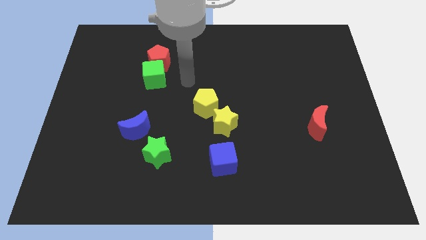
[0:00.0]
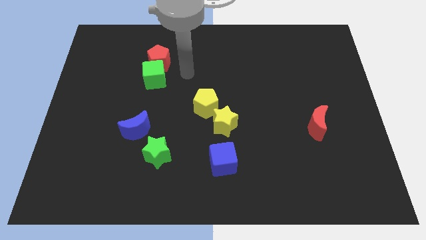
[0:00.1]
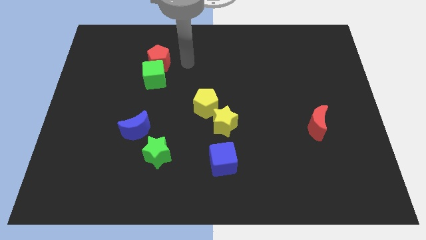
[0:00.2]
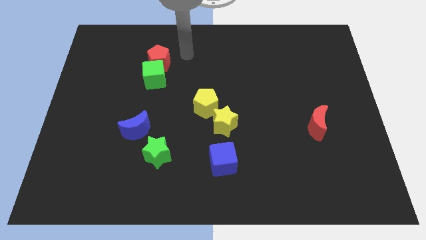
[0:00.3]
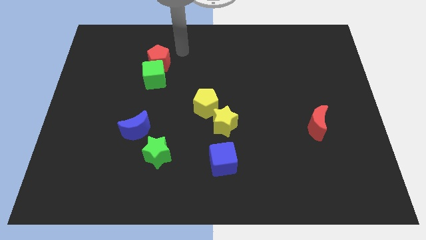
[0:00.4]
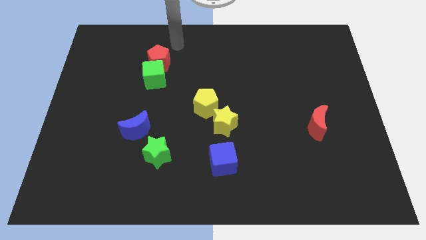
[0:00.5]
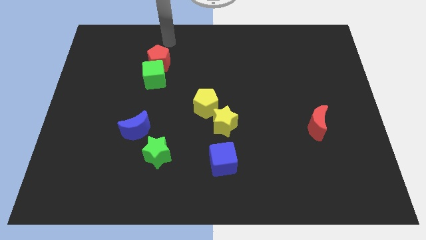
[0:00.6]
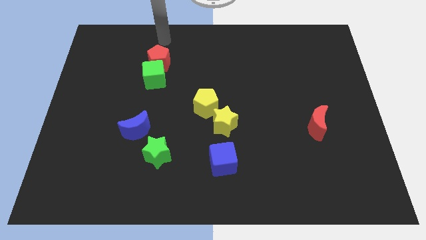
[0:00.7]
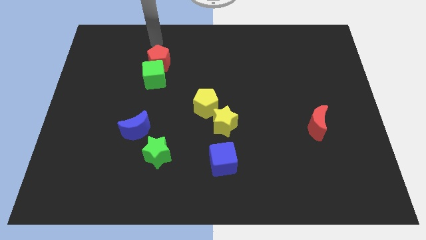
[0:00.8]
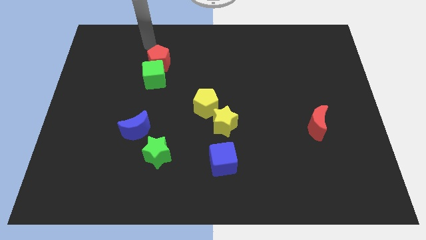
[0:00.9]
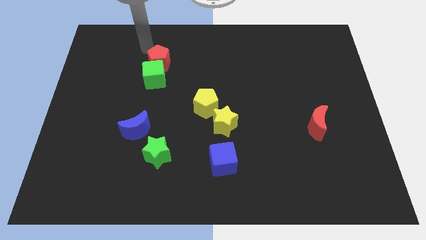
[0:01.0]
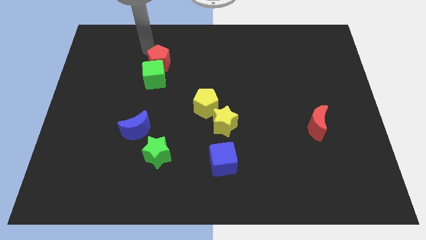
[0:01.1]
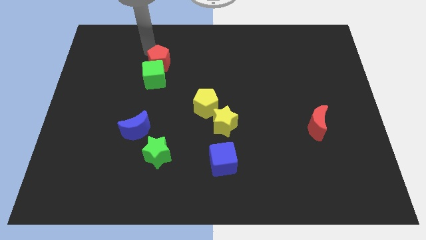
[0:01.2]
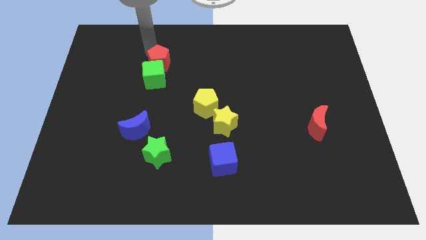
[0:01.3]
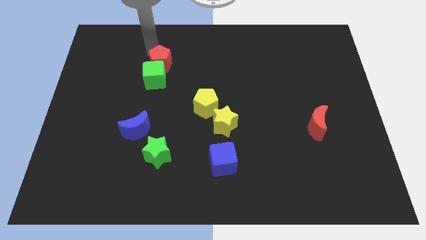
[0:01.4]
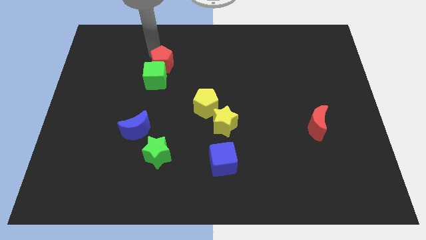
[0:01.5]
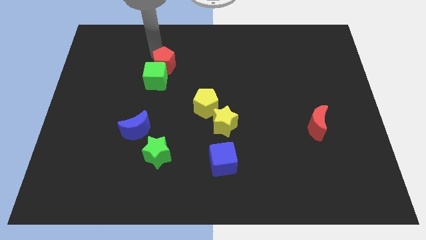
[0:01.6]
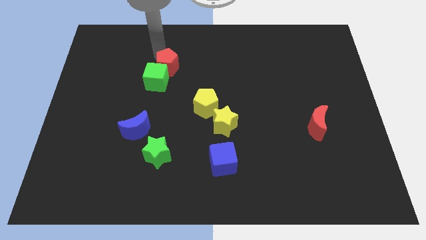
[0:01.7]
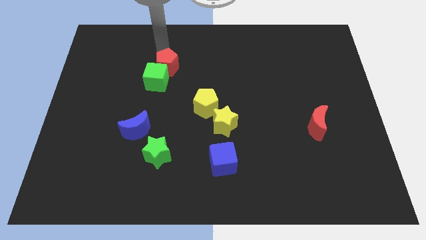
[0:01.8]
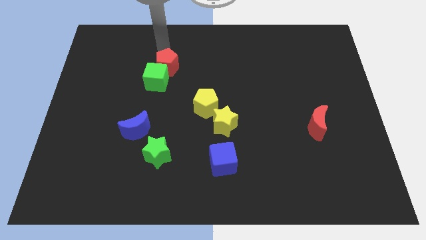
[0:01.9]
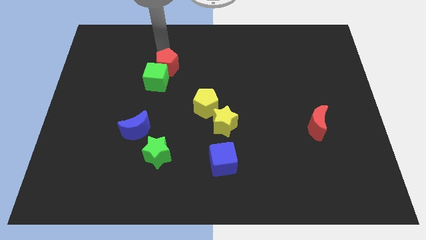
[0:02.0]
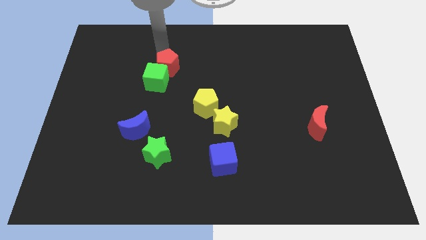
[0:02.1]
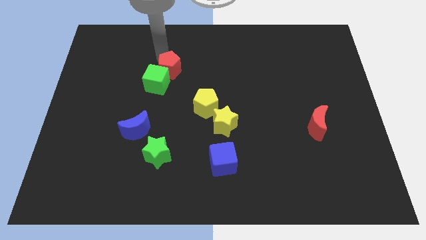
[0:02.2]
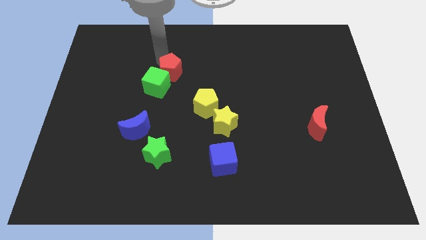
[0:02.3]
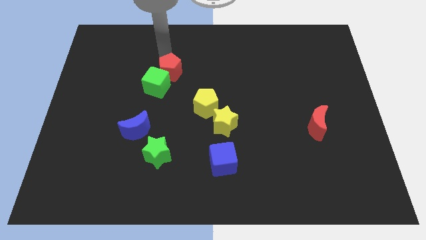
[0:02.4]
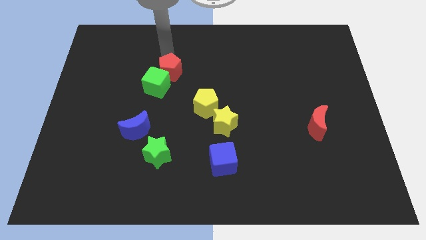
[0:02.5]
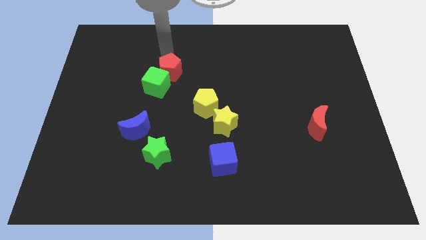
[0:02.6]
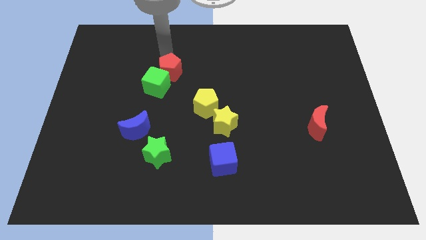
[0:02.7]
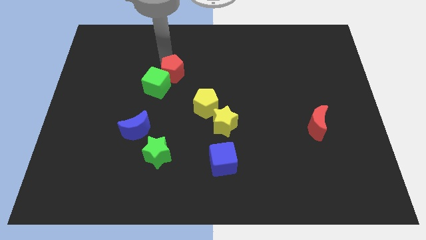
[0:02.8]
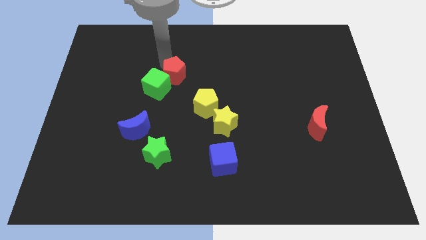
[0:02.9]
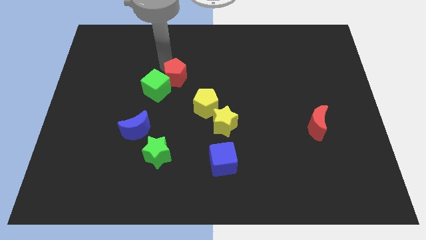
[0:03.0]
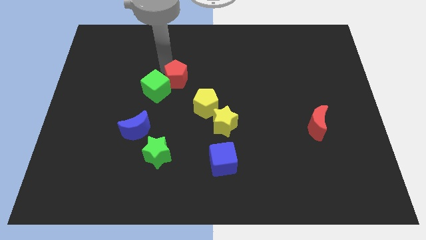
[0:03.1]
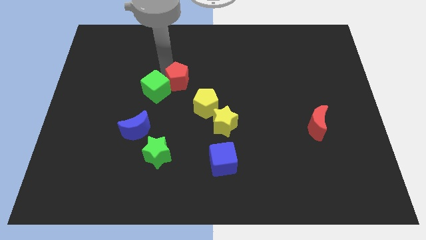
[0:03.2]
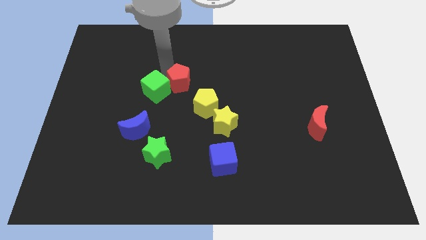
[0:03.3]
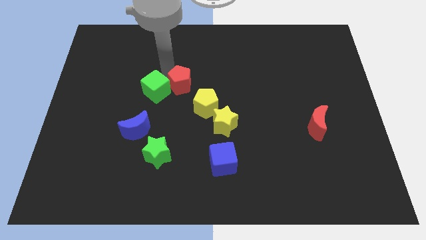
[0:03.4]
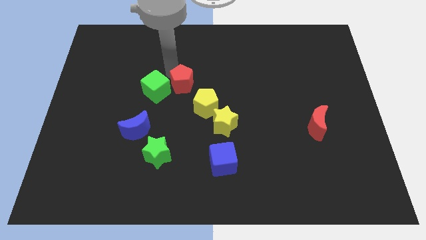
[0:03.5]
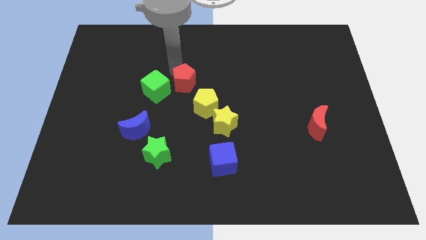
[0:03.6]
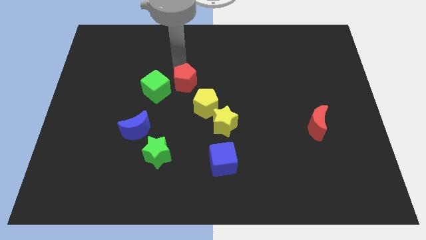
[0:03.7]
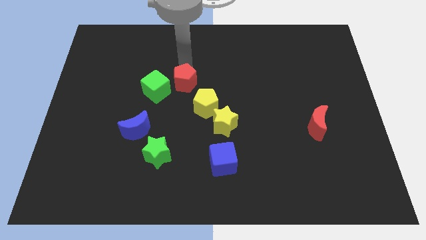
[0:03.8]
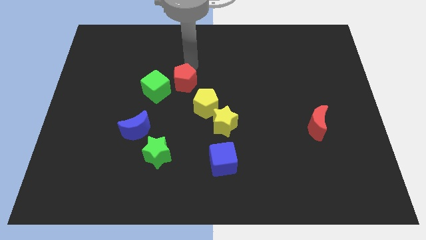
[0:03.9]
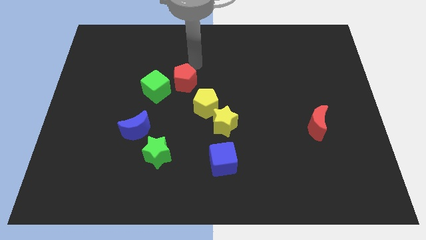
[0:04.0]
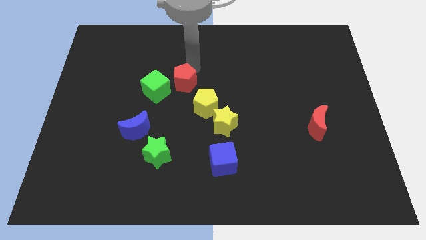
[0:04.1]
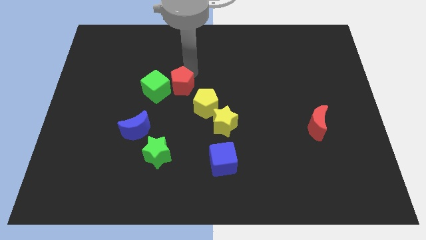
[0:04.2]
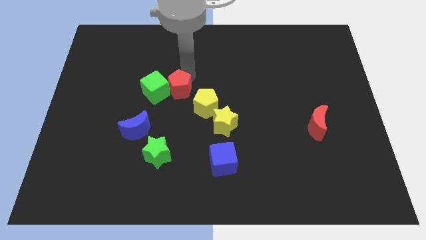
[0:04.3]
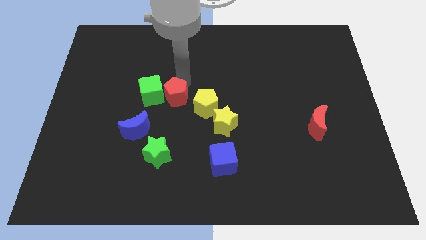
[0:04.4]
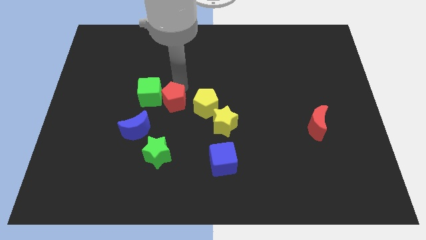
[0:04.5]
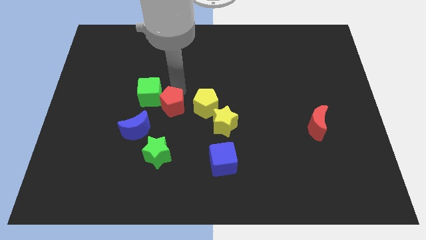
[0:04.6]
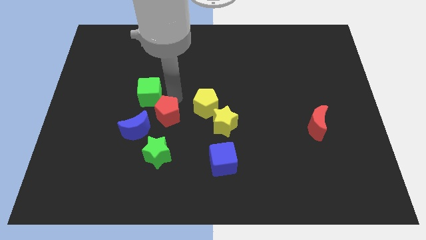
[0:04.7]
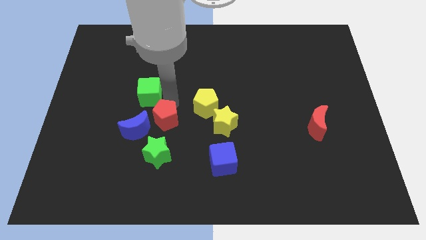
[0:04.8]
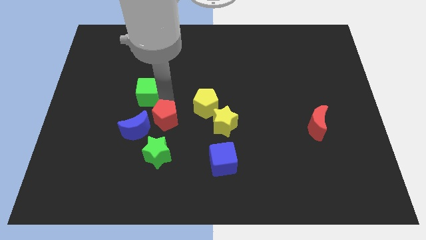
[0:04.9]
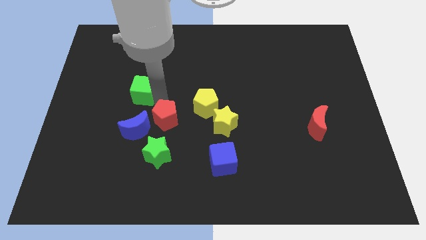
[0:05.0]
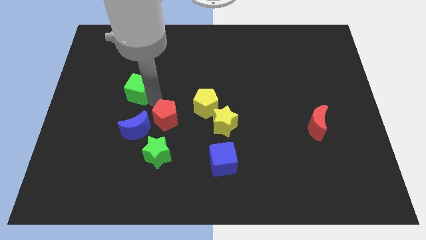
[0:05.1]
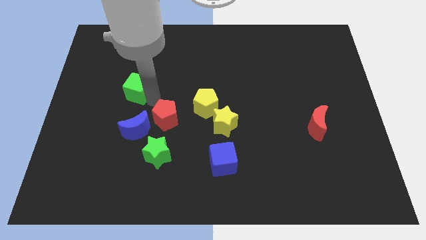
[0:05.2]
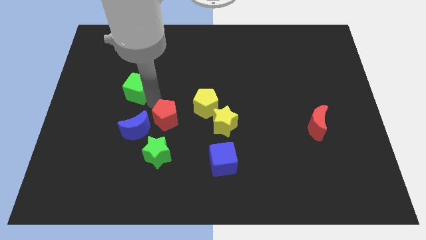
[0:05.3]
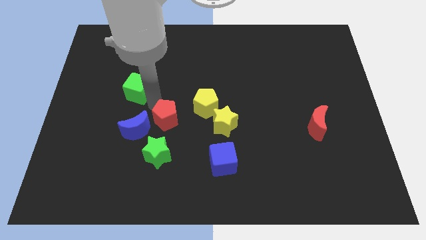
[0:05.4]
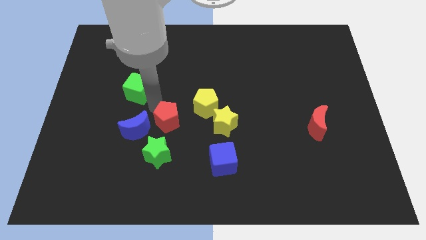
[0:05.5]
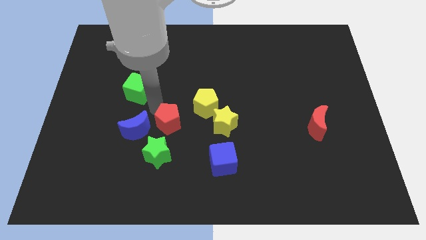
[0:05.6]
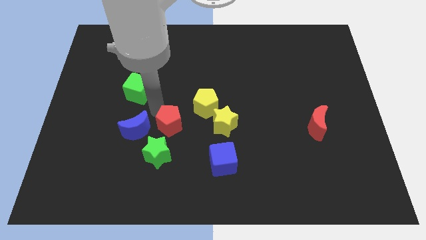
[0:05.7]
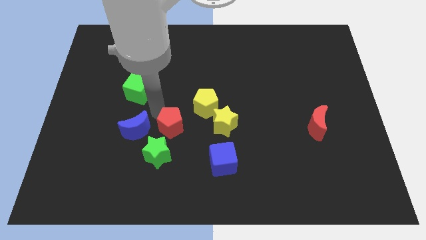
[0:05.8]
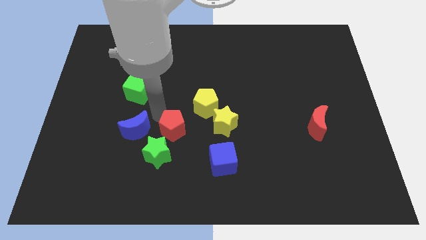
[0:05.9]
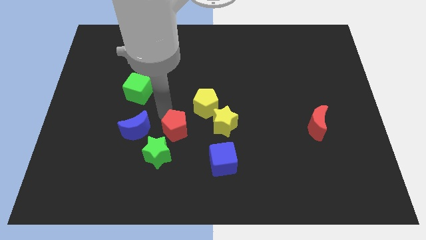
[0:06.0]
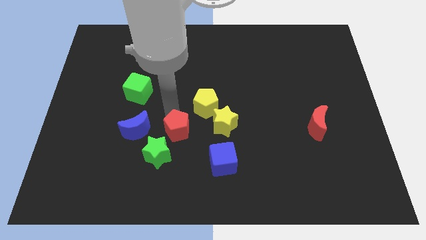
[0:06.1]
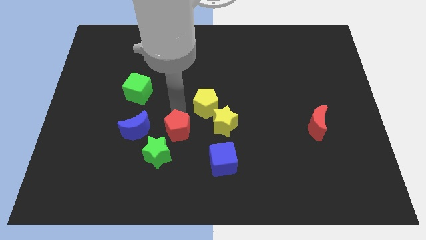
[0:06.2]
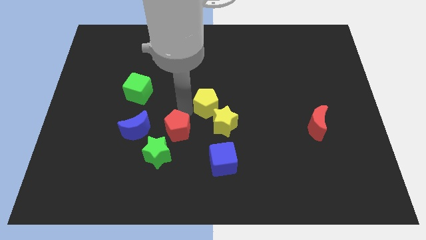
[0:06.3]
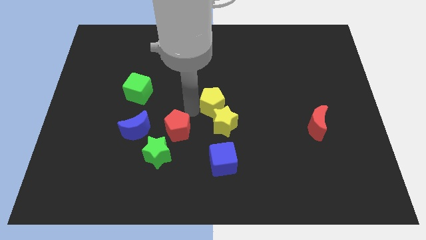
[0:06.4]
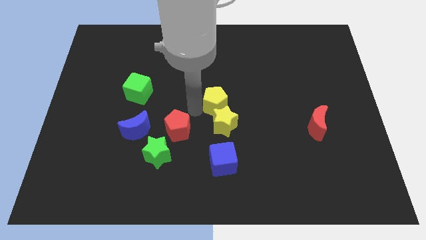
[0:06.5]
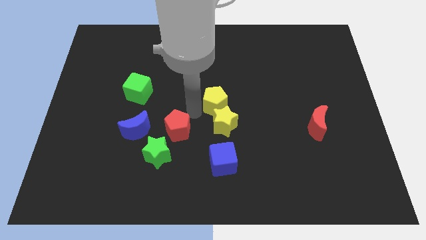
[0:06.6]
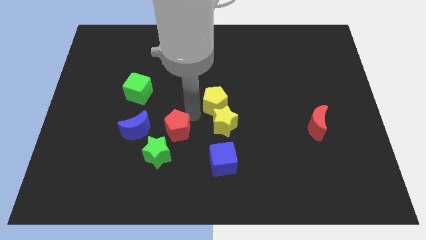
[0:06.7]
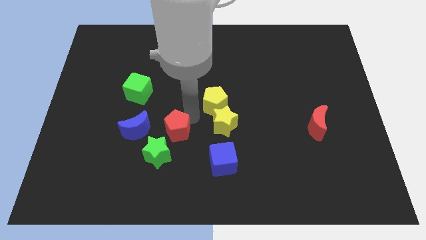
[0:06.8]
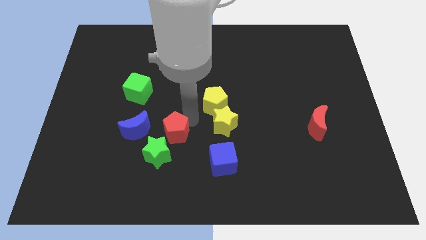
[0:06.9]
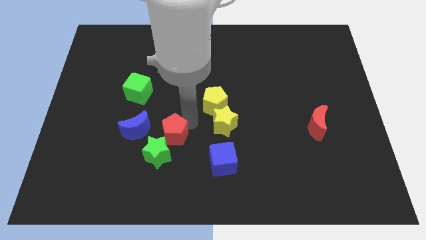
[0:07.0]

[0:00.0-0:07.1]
move the red pentagon towards the green star

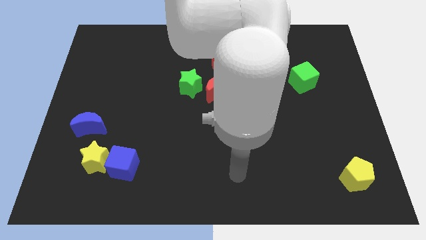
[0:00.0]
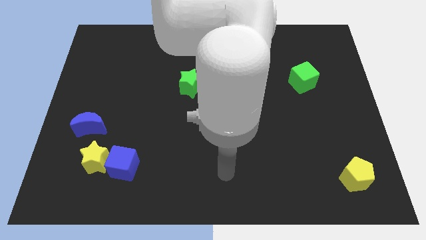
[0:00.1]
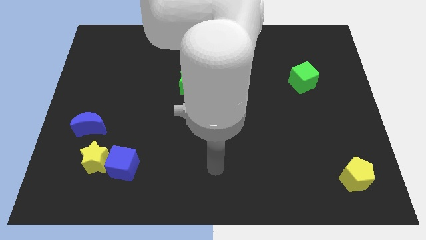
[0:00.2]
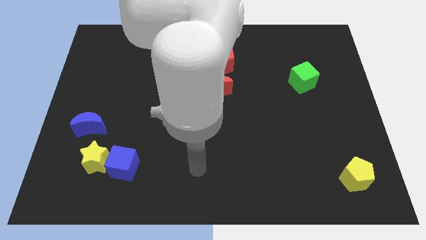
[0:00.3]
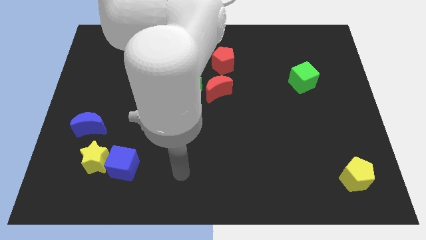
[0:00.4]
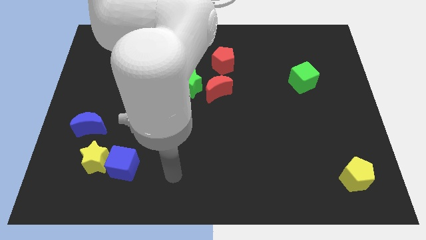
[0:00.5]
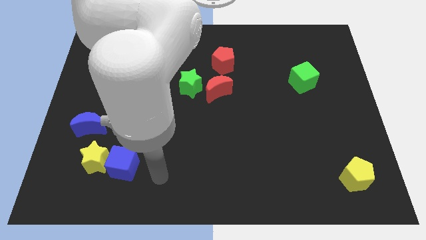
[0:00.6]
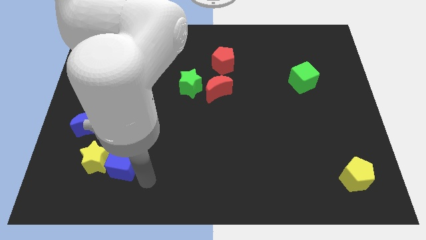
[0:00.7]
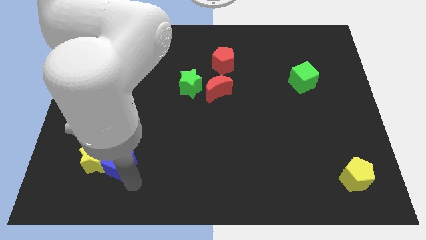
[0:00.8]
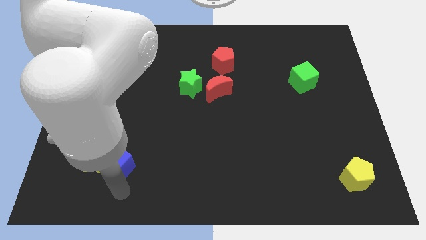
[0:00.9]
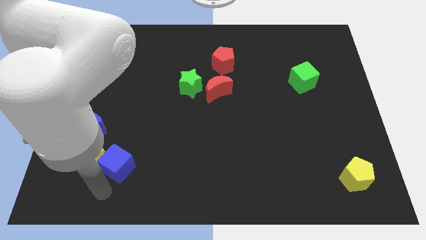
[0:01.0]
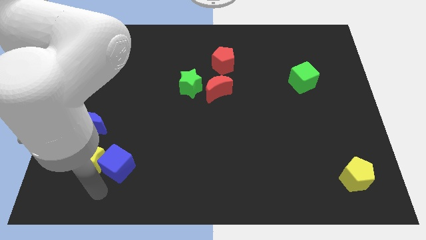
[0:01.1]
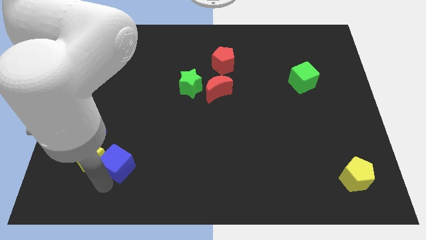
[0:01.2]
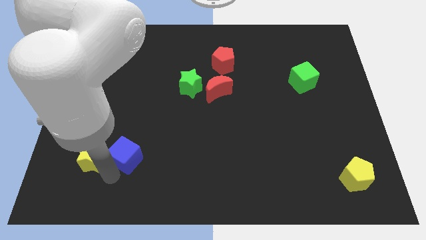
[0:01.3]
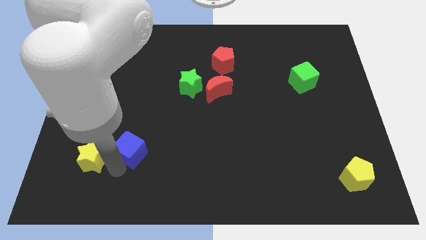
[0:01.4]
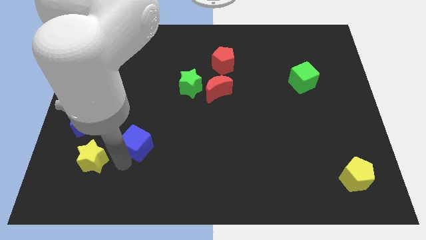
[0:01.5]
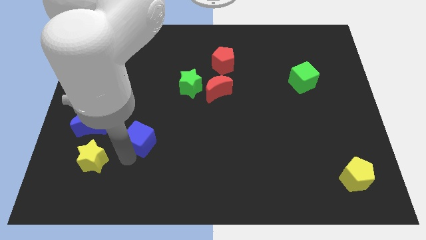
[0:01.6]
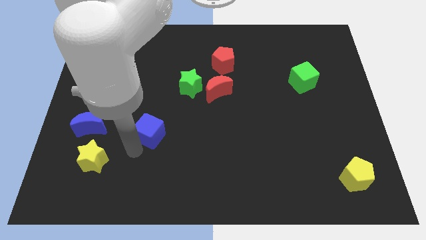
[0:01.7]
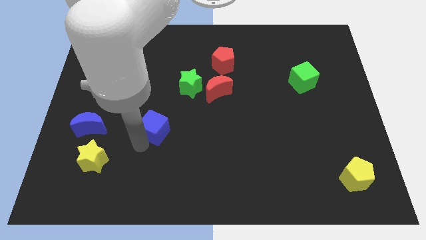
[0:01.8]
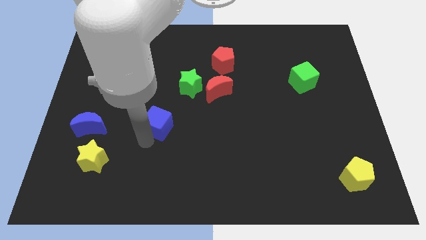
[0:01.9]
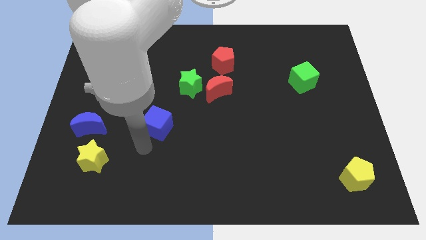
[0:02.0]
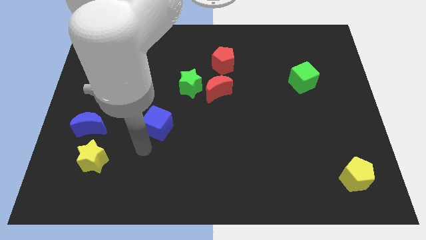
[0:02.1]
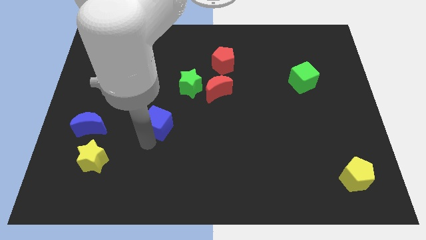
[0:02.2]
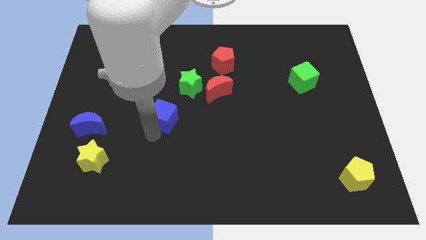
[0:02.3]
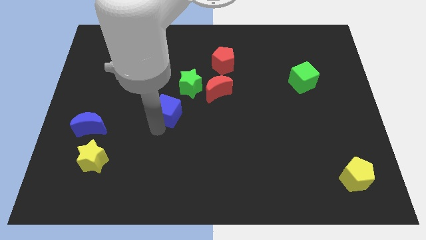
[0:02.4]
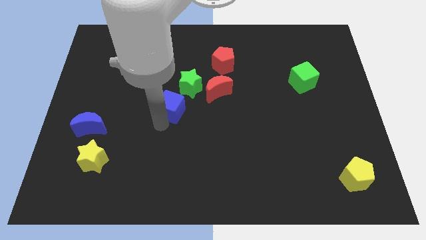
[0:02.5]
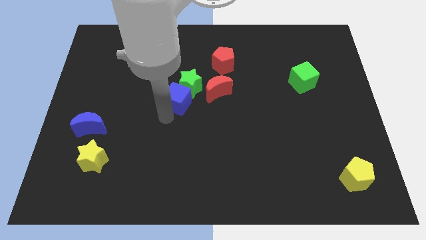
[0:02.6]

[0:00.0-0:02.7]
put the blue cube towards the green star
